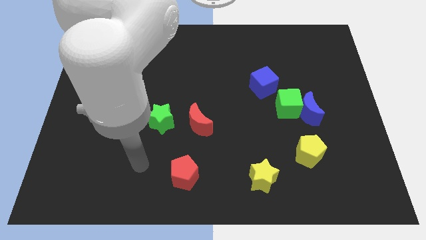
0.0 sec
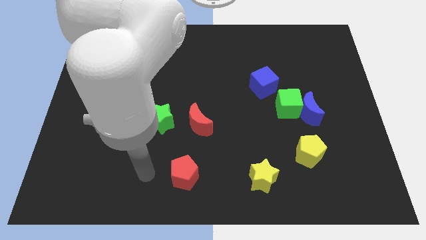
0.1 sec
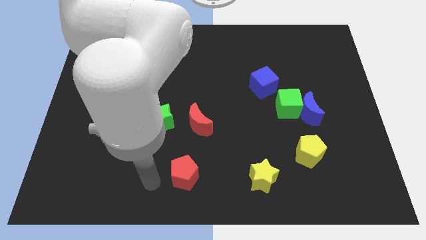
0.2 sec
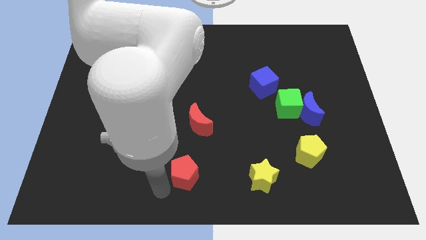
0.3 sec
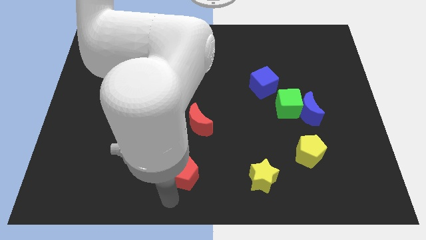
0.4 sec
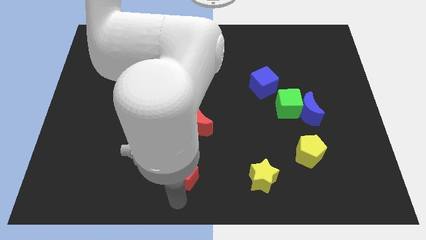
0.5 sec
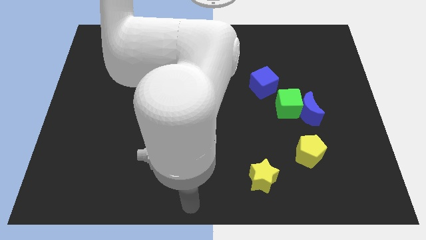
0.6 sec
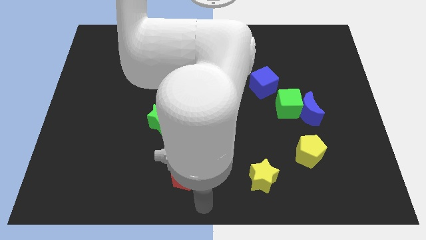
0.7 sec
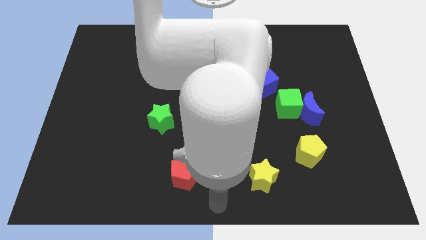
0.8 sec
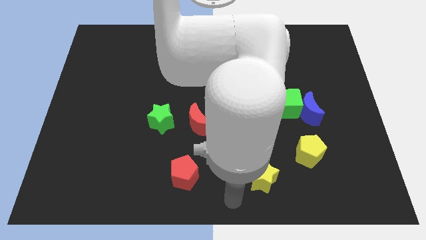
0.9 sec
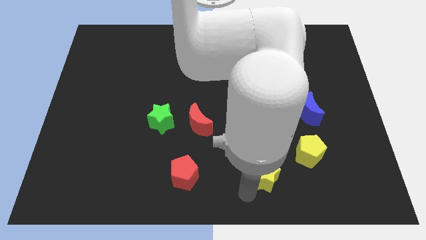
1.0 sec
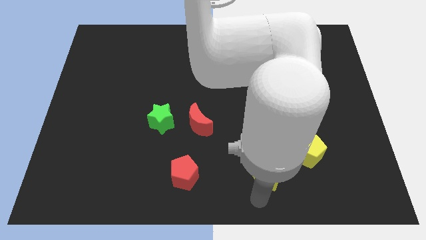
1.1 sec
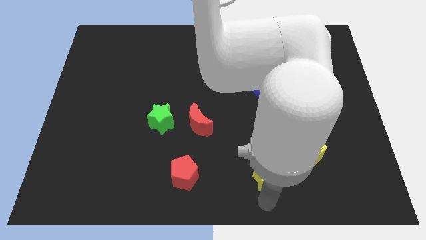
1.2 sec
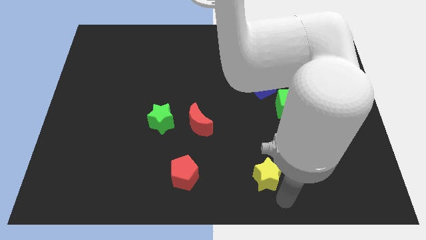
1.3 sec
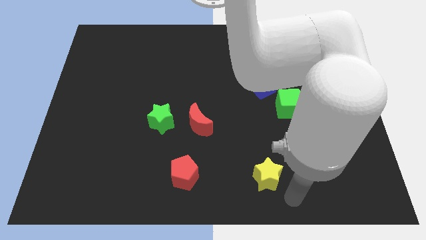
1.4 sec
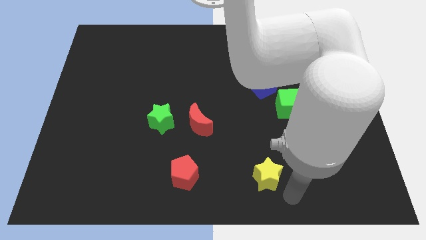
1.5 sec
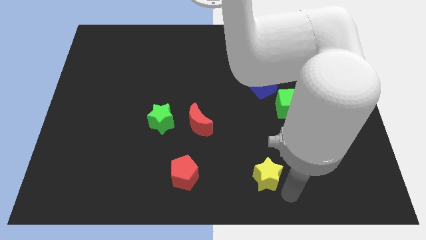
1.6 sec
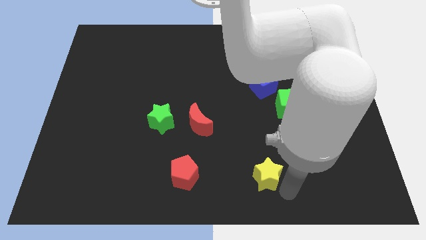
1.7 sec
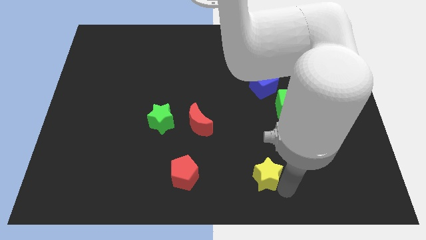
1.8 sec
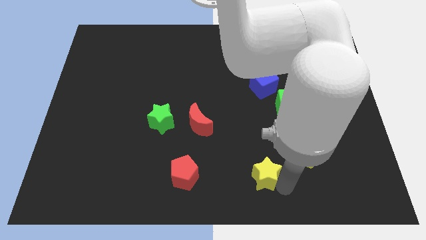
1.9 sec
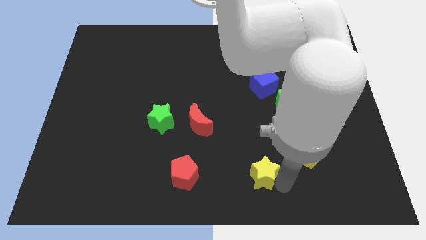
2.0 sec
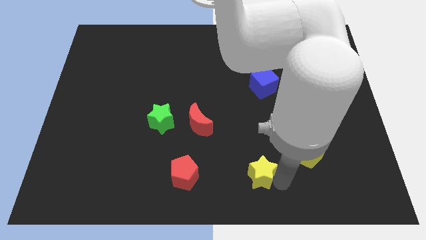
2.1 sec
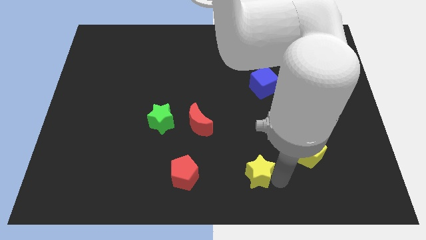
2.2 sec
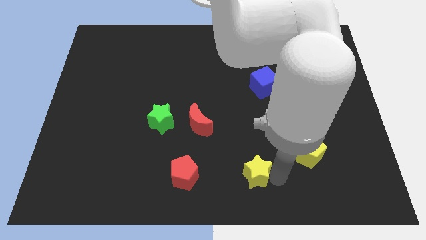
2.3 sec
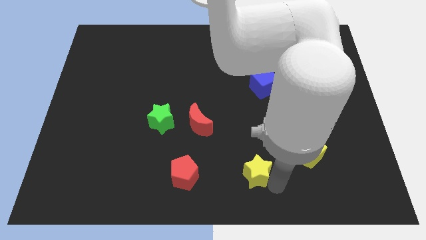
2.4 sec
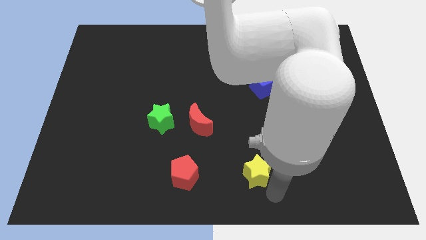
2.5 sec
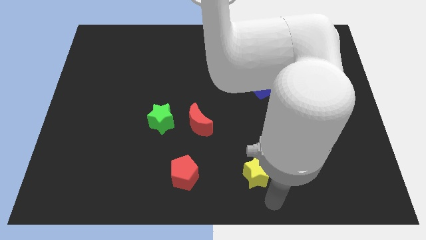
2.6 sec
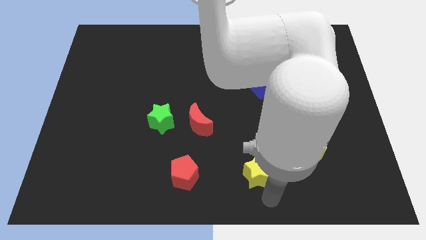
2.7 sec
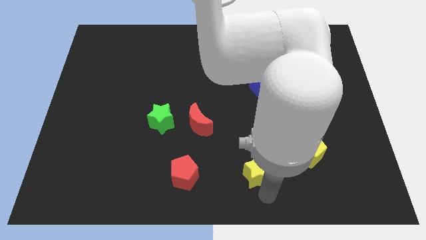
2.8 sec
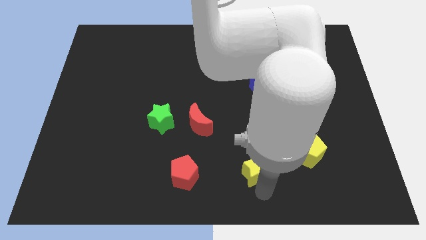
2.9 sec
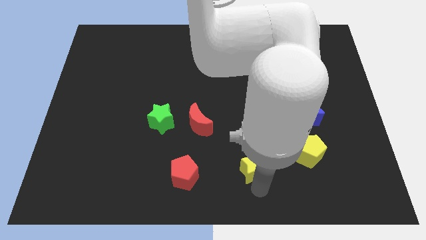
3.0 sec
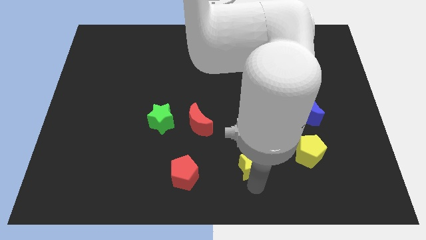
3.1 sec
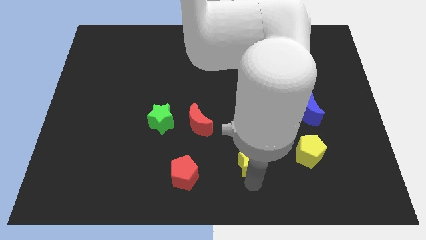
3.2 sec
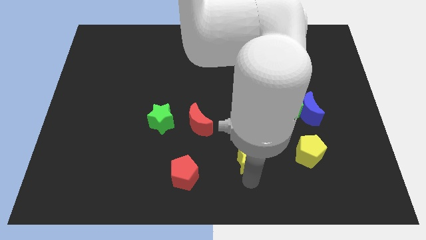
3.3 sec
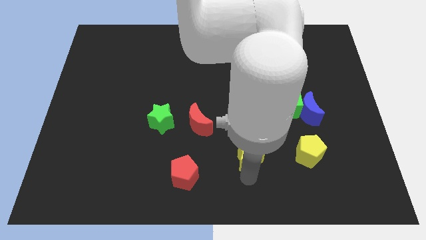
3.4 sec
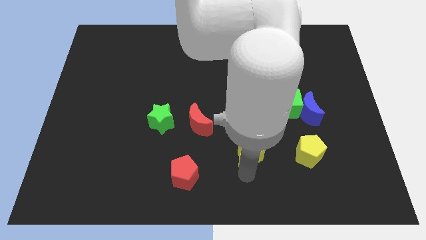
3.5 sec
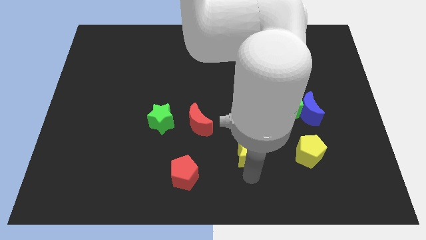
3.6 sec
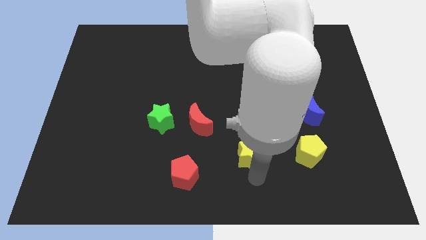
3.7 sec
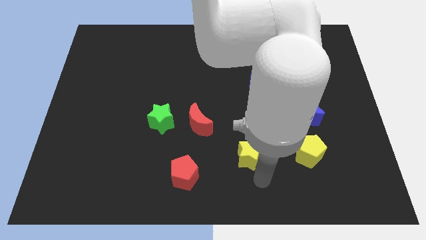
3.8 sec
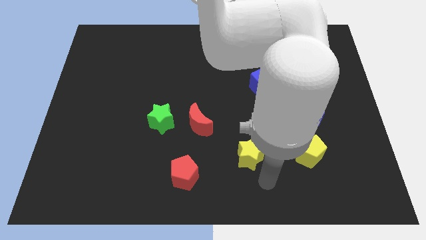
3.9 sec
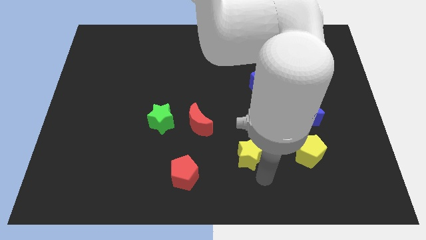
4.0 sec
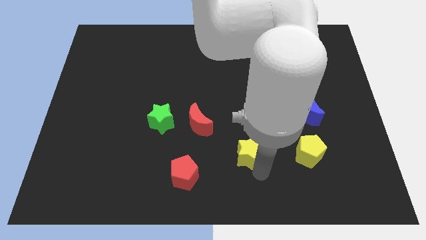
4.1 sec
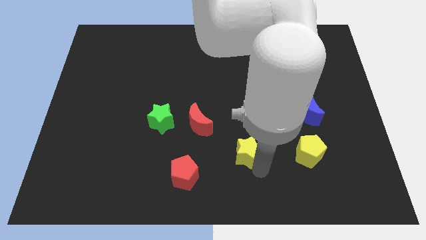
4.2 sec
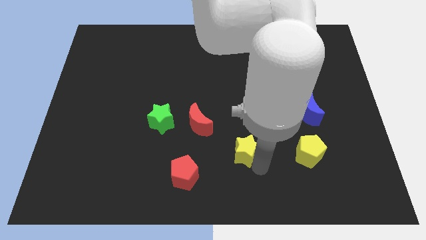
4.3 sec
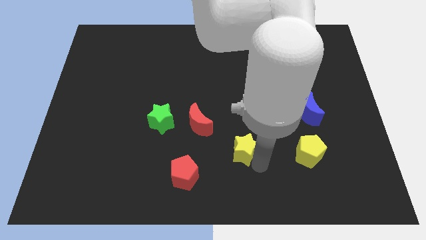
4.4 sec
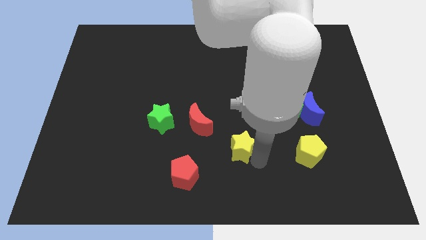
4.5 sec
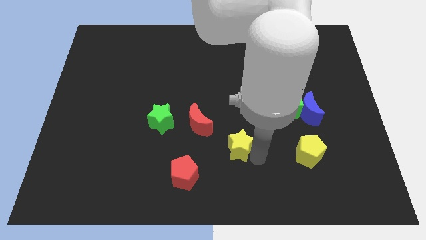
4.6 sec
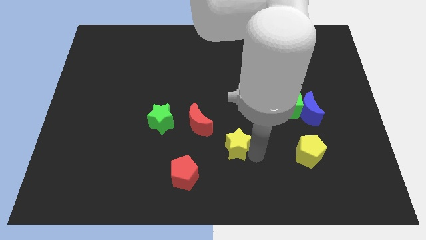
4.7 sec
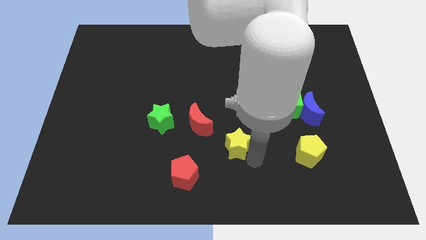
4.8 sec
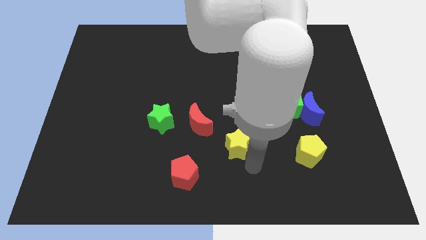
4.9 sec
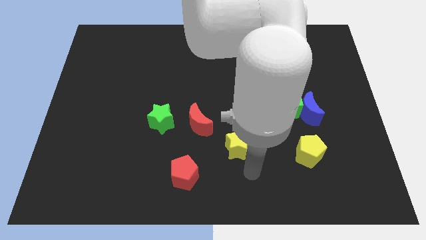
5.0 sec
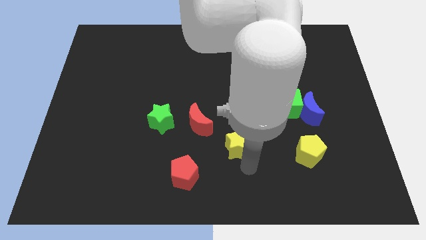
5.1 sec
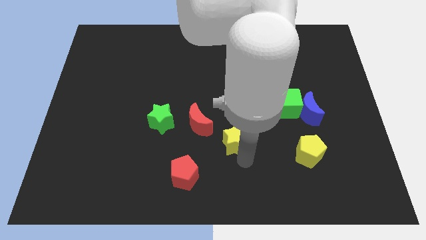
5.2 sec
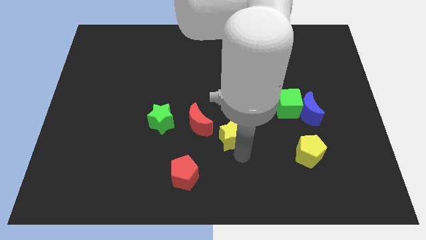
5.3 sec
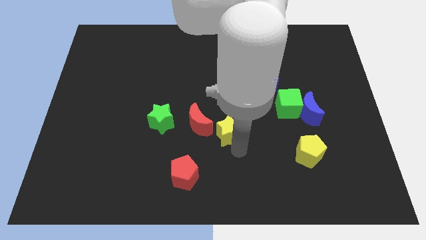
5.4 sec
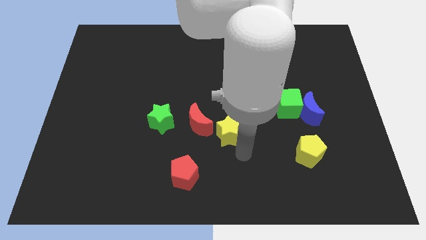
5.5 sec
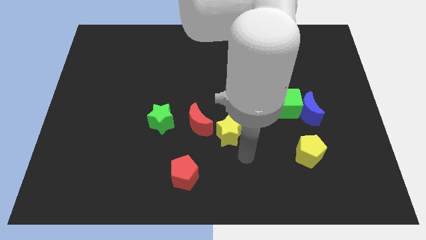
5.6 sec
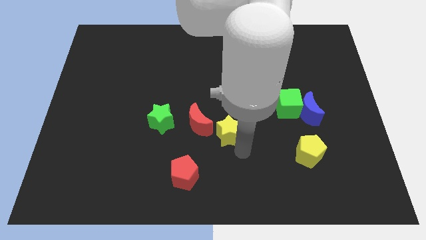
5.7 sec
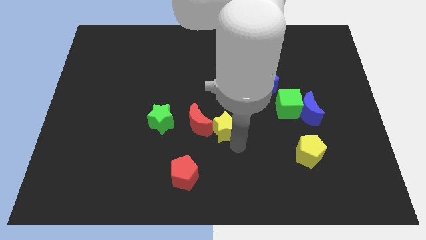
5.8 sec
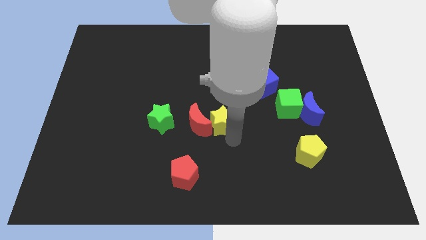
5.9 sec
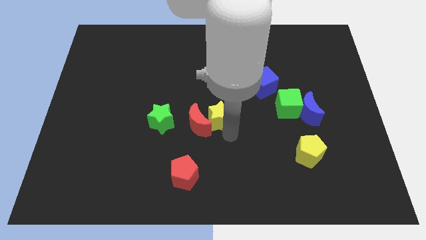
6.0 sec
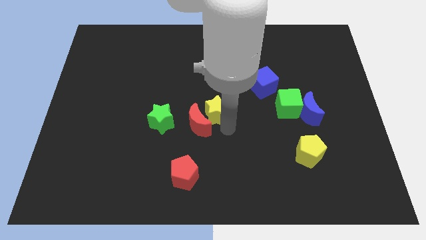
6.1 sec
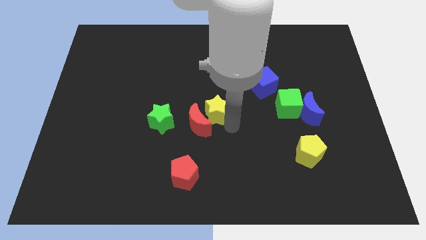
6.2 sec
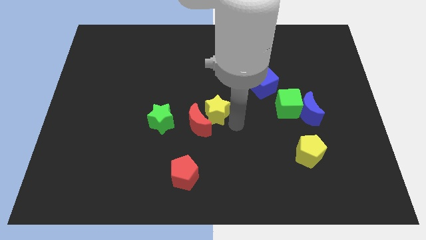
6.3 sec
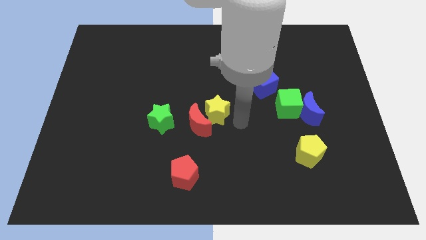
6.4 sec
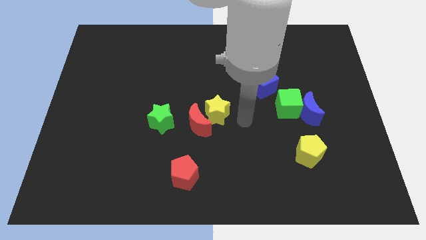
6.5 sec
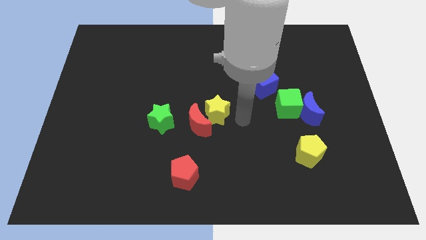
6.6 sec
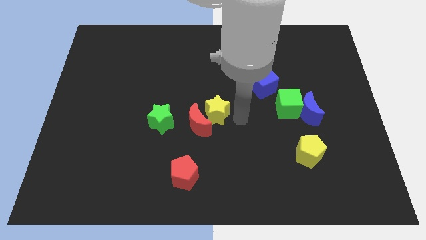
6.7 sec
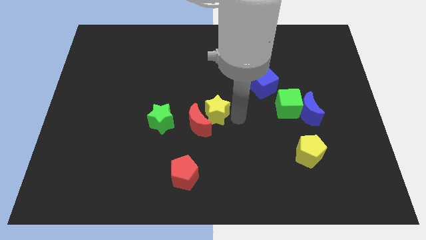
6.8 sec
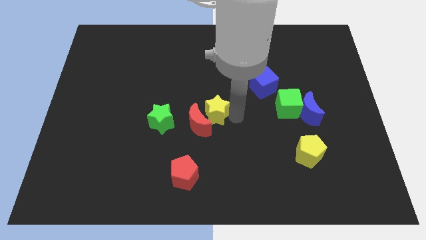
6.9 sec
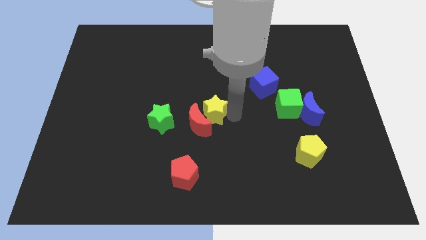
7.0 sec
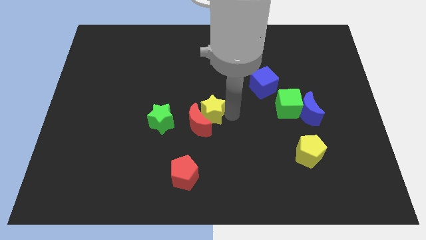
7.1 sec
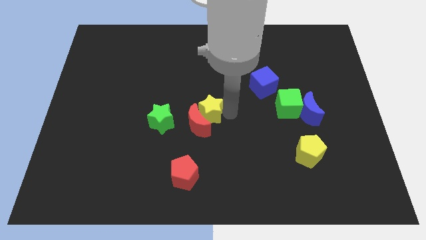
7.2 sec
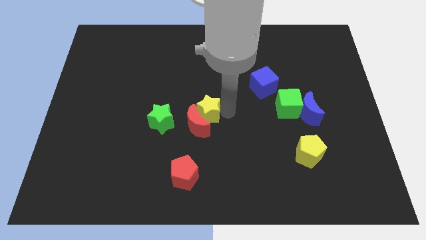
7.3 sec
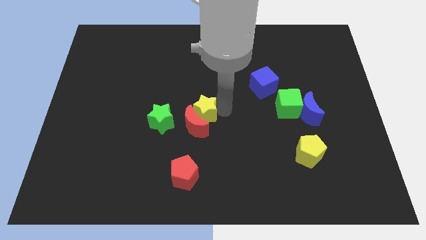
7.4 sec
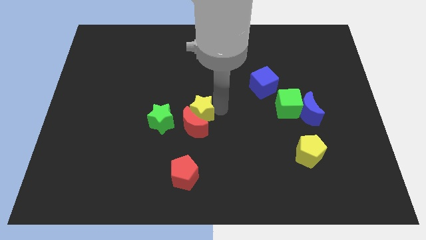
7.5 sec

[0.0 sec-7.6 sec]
put the yellow star diagonally up and to the left of the red moon

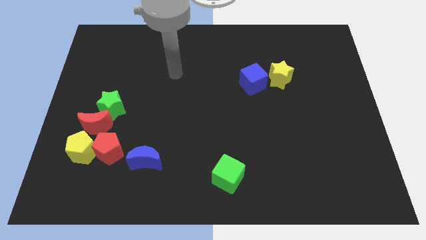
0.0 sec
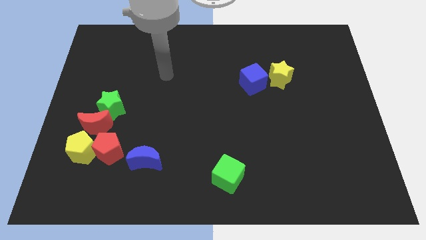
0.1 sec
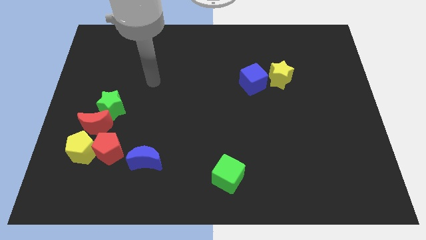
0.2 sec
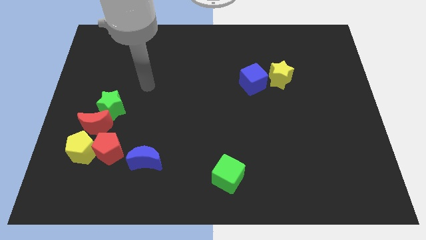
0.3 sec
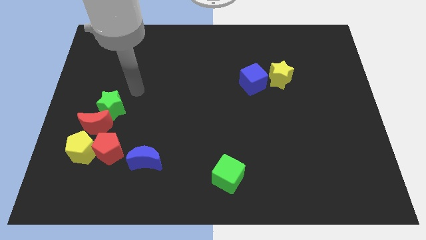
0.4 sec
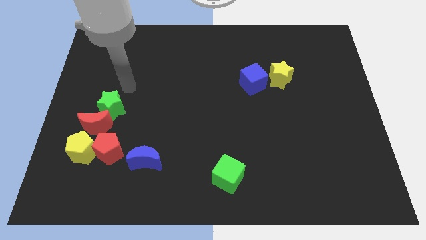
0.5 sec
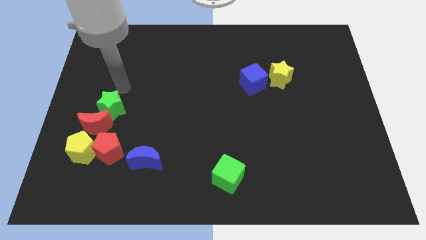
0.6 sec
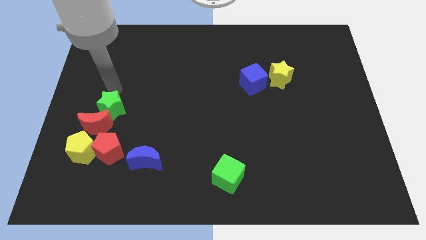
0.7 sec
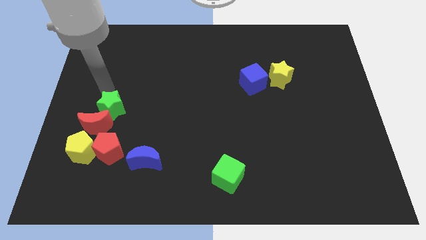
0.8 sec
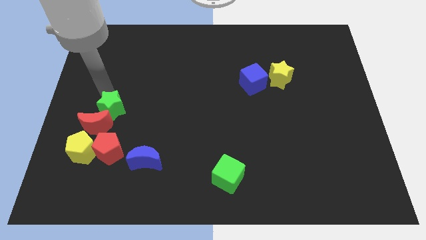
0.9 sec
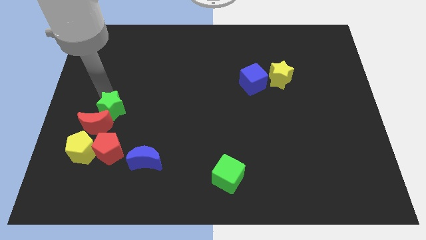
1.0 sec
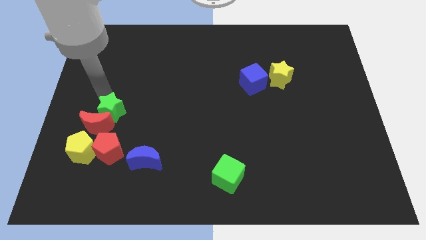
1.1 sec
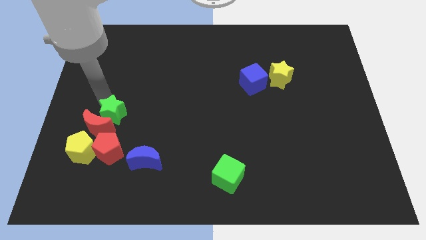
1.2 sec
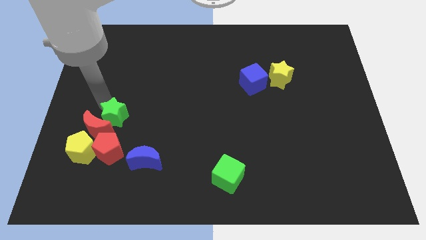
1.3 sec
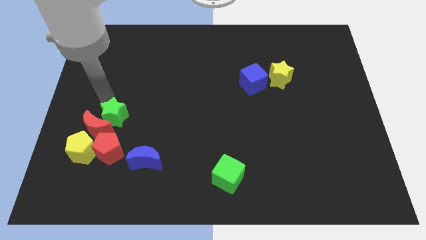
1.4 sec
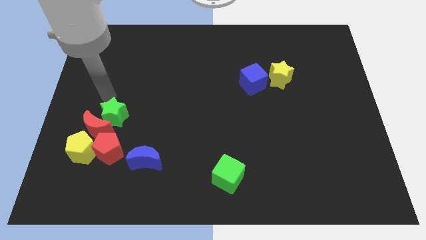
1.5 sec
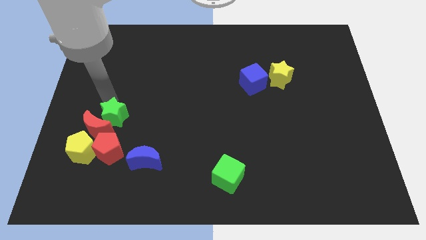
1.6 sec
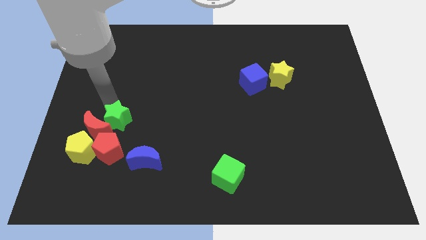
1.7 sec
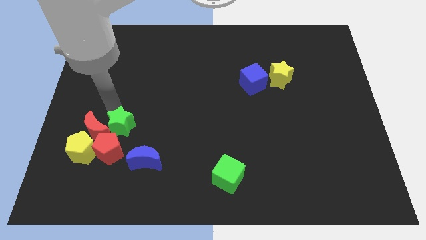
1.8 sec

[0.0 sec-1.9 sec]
push the green star diagonally up and to the left of the blue moon
